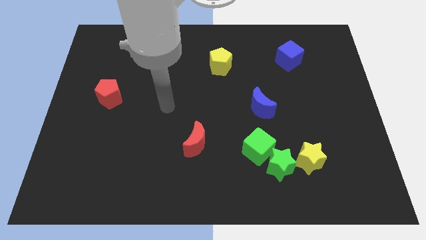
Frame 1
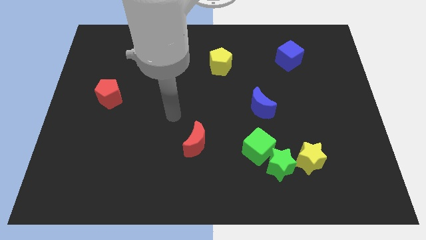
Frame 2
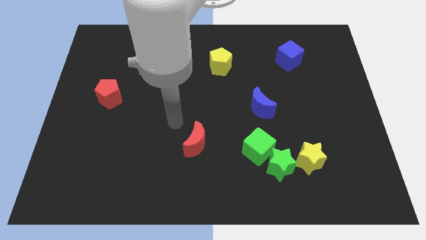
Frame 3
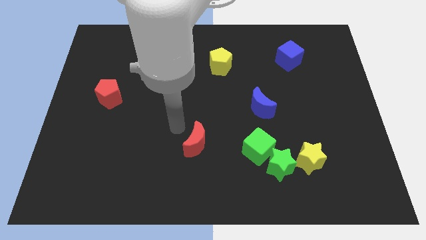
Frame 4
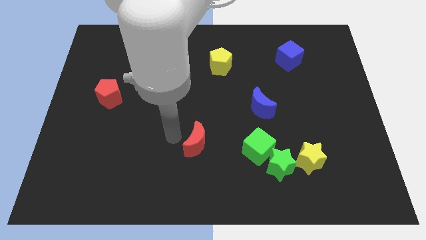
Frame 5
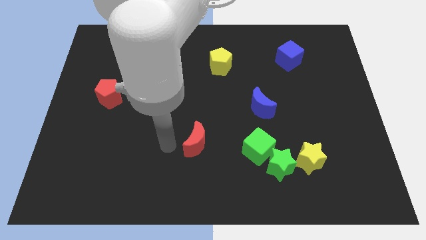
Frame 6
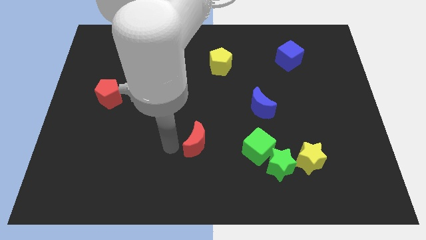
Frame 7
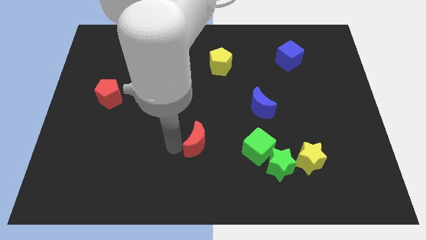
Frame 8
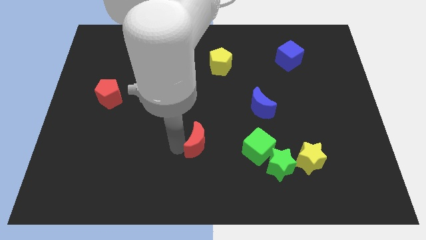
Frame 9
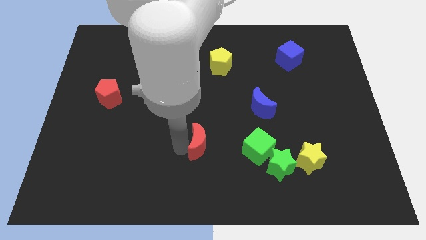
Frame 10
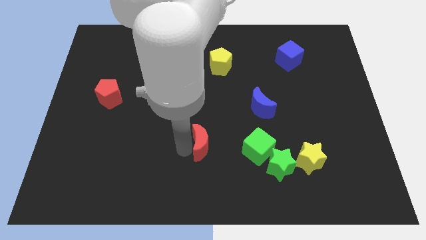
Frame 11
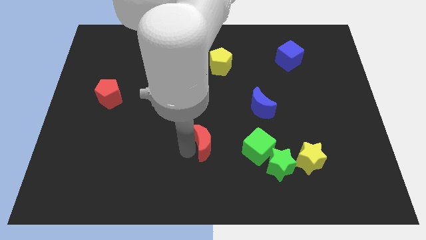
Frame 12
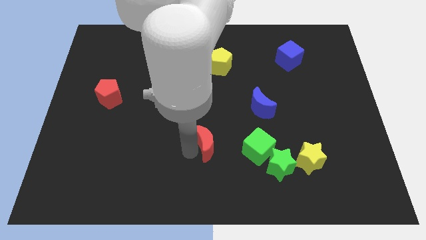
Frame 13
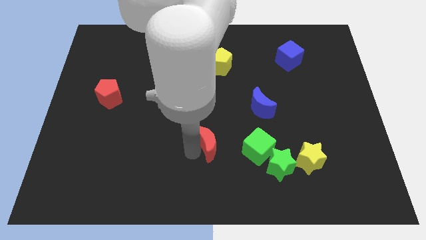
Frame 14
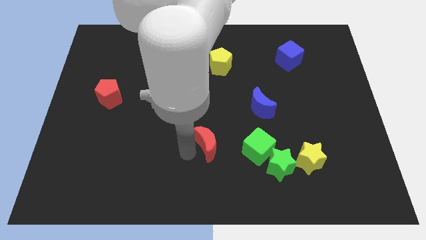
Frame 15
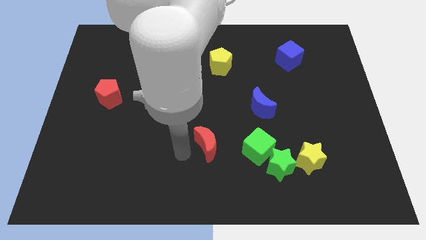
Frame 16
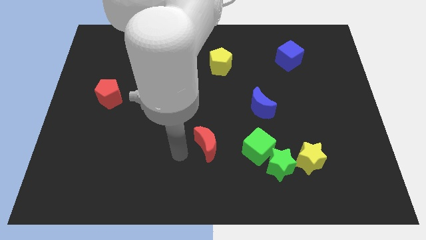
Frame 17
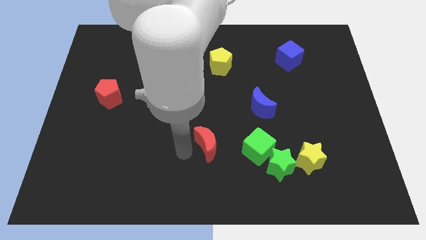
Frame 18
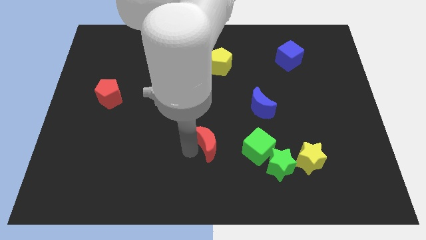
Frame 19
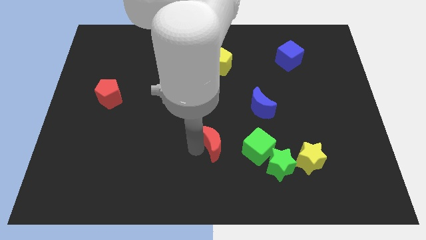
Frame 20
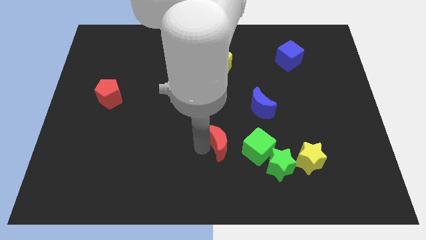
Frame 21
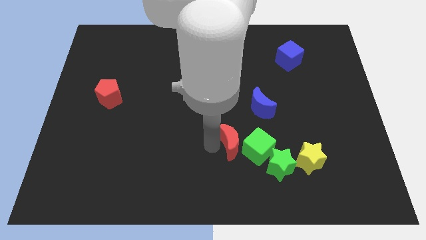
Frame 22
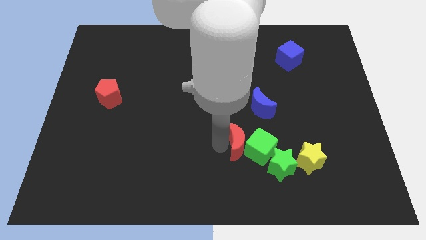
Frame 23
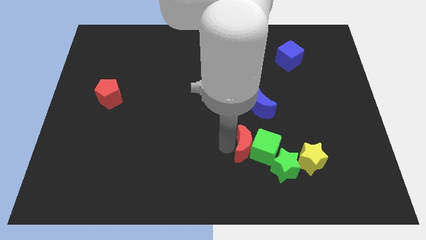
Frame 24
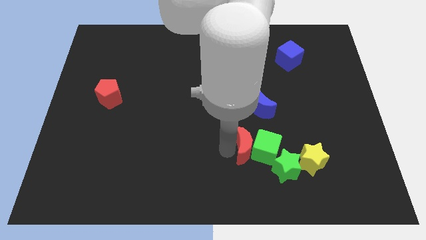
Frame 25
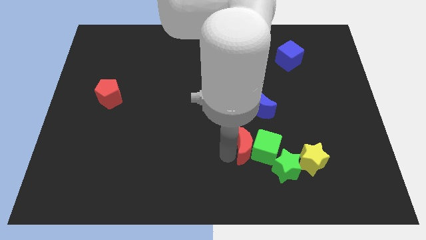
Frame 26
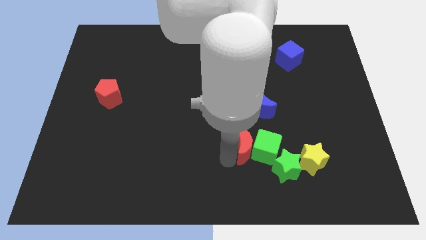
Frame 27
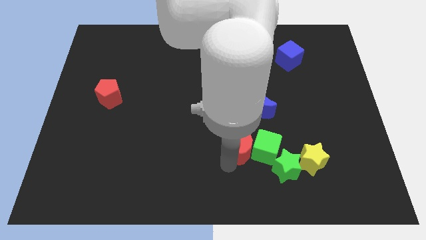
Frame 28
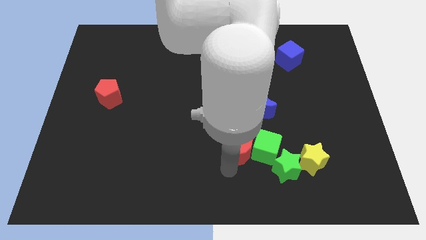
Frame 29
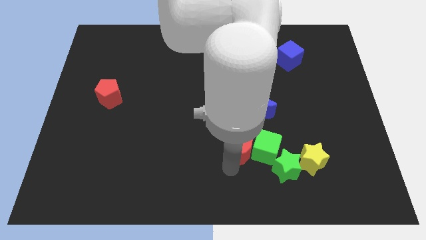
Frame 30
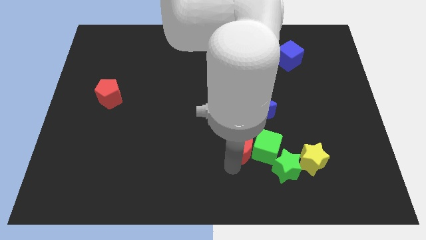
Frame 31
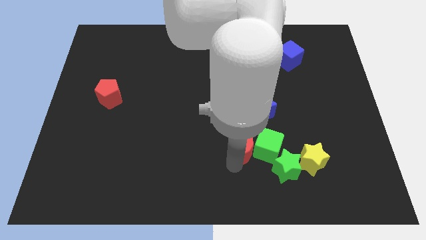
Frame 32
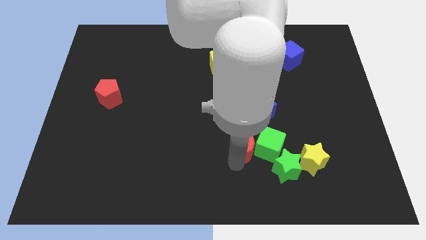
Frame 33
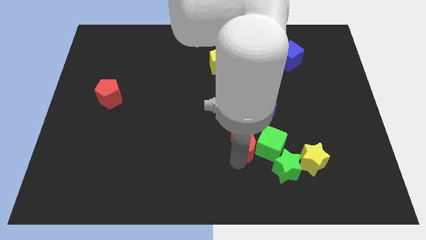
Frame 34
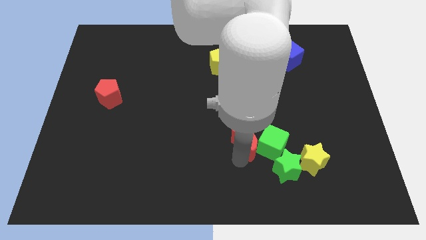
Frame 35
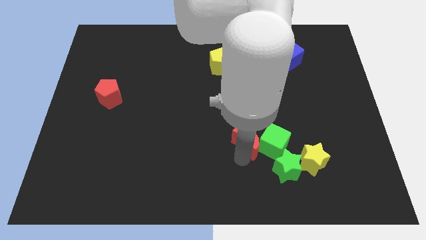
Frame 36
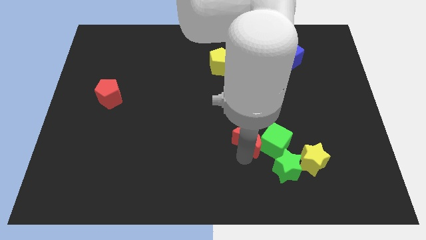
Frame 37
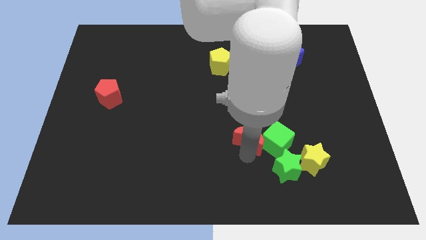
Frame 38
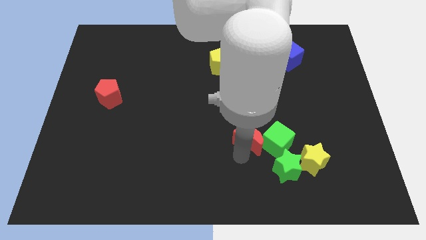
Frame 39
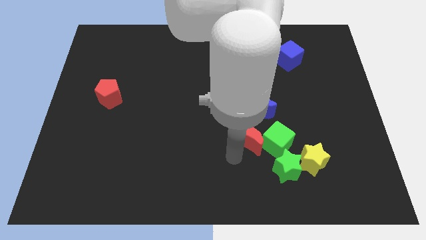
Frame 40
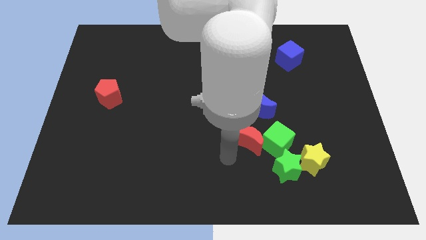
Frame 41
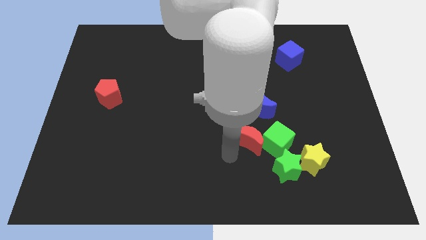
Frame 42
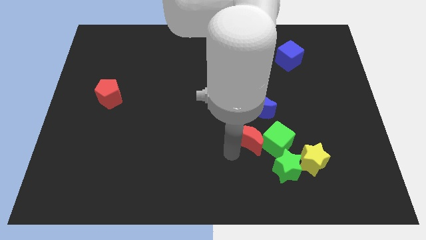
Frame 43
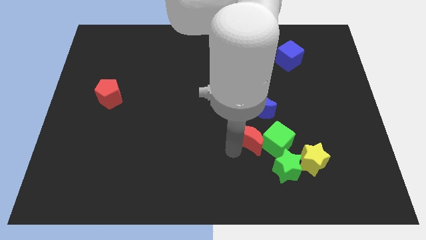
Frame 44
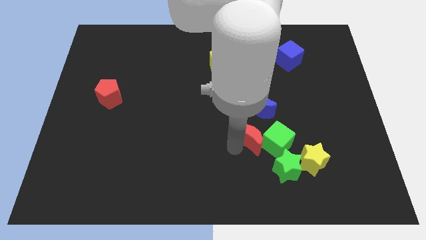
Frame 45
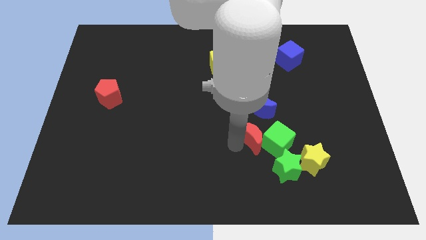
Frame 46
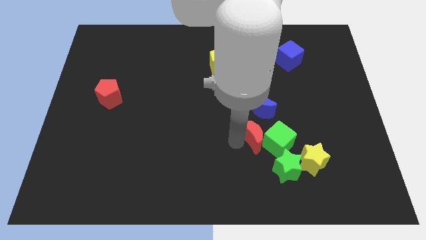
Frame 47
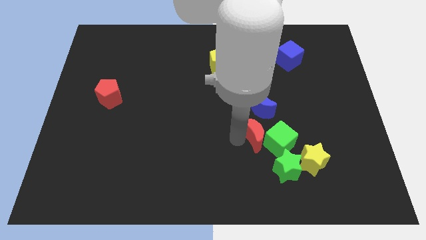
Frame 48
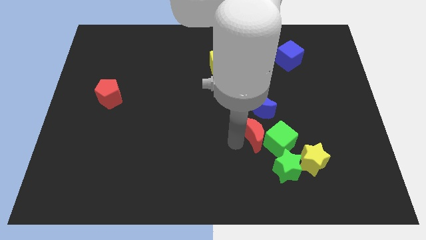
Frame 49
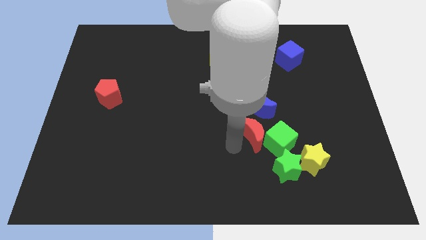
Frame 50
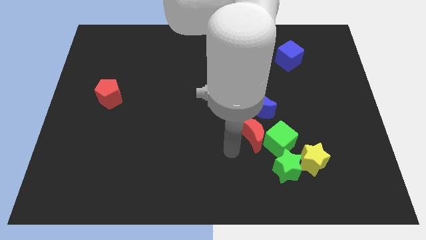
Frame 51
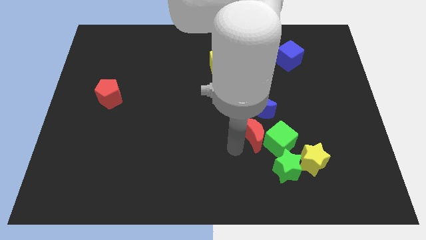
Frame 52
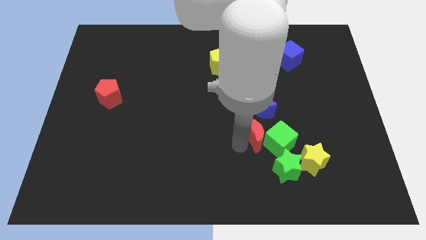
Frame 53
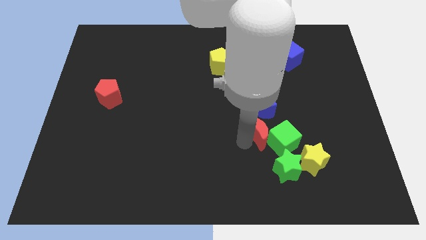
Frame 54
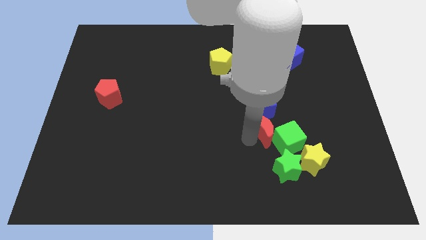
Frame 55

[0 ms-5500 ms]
put the red moon to the bottom right of the blue moon

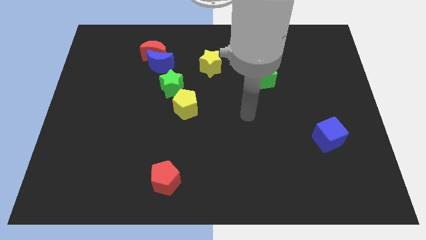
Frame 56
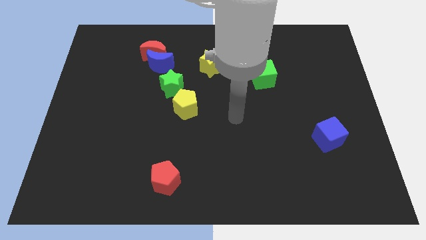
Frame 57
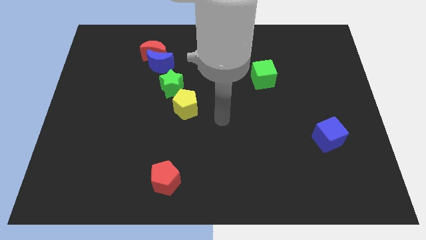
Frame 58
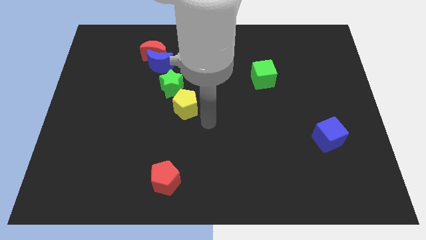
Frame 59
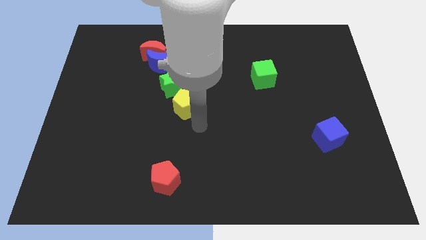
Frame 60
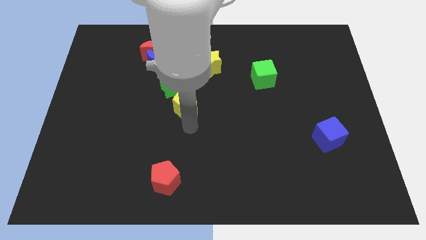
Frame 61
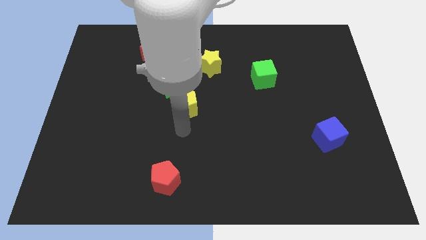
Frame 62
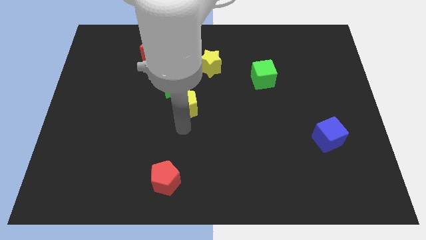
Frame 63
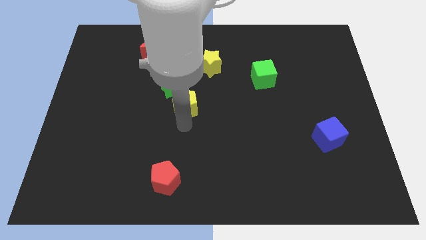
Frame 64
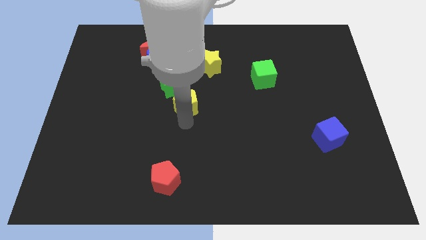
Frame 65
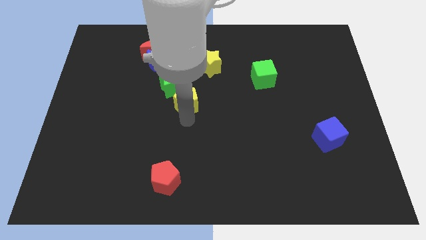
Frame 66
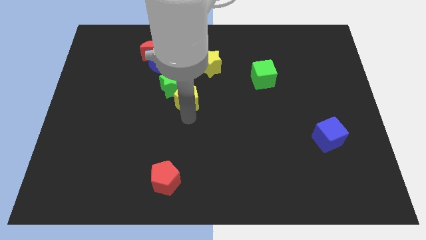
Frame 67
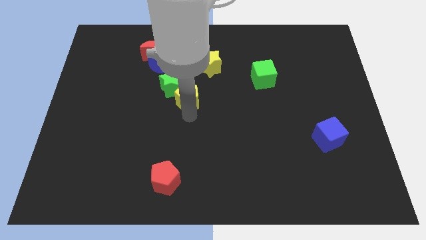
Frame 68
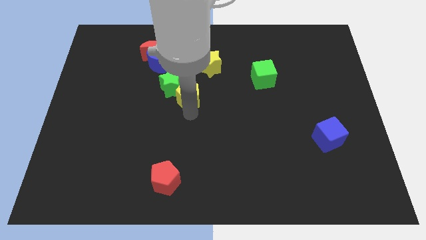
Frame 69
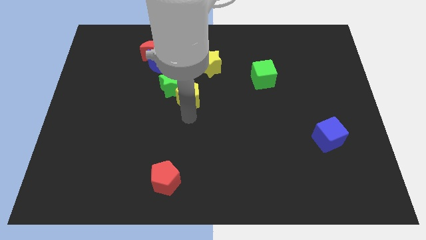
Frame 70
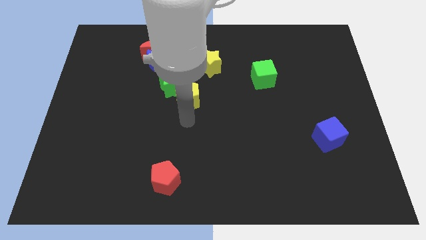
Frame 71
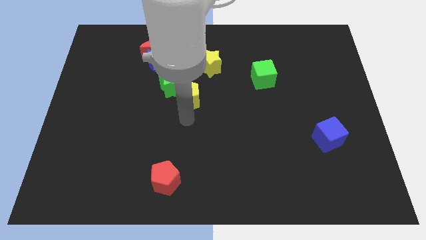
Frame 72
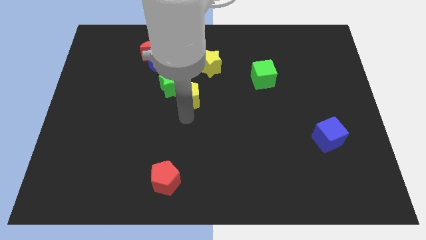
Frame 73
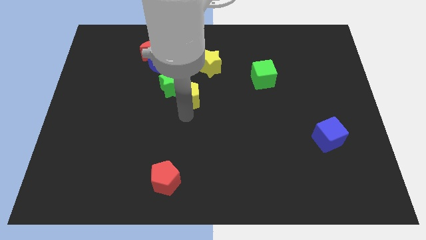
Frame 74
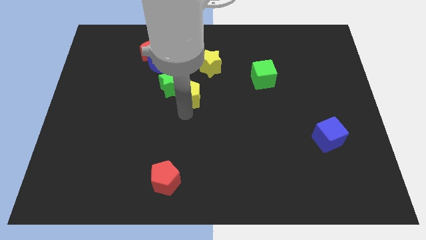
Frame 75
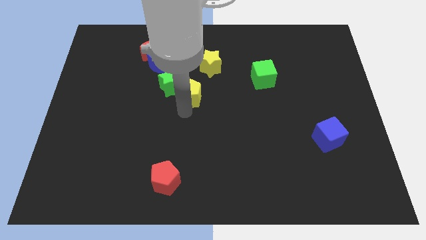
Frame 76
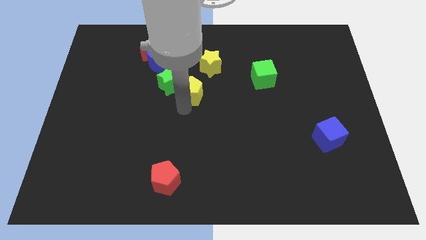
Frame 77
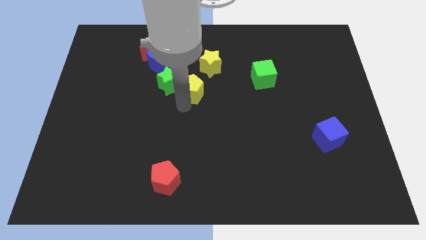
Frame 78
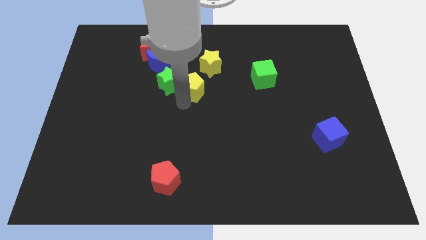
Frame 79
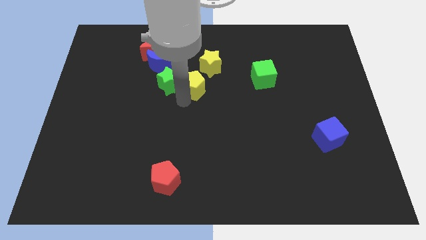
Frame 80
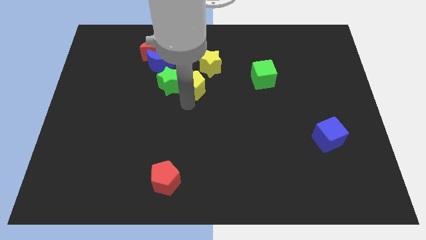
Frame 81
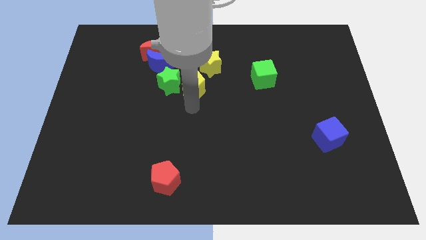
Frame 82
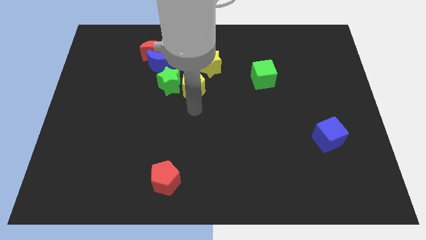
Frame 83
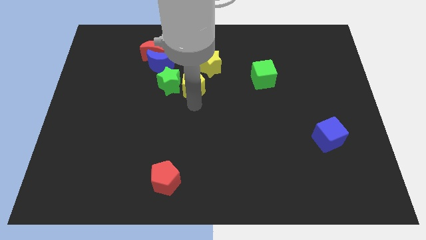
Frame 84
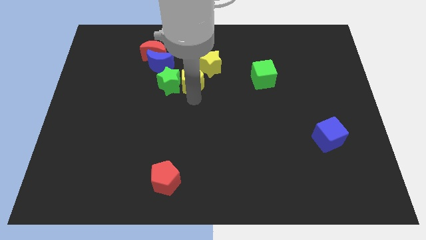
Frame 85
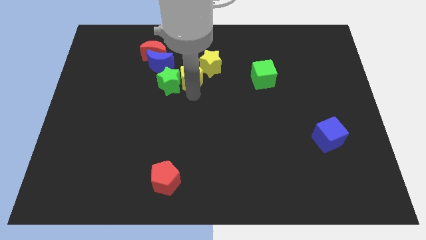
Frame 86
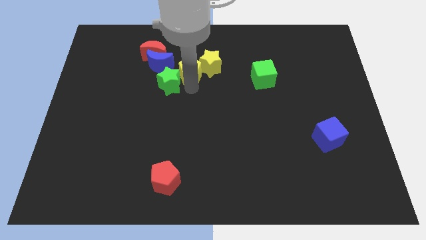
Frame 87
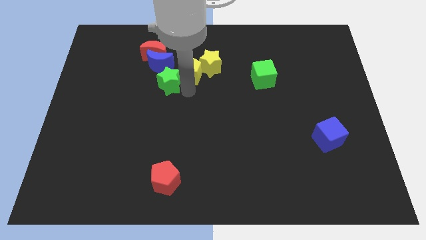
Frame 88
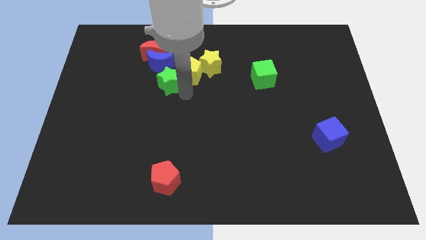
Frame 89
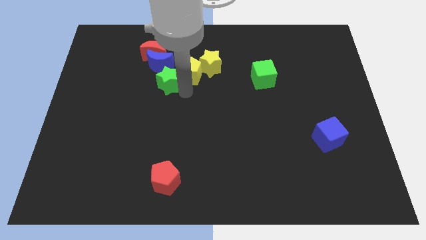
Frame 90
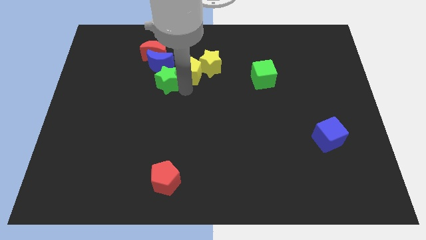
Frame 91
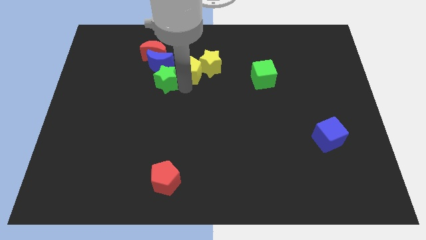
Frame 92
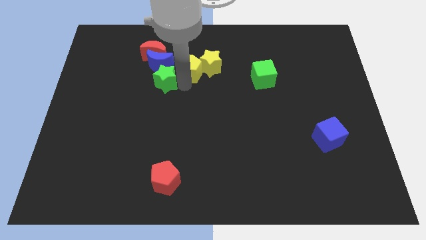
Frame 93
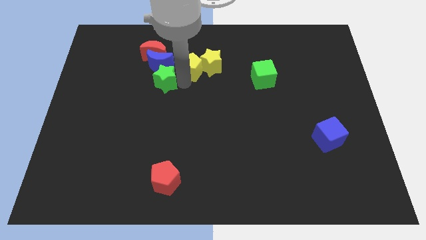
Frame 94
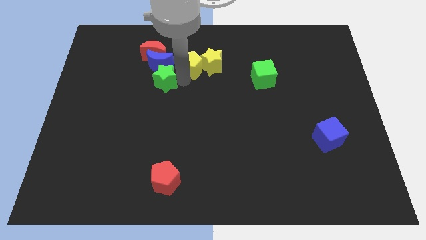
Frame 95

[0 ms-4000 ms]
put the yellow pentagon right of the red moon
